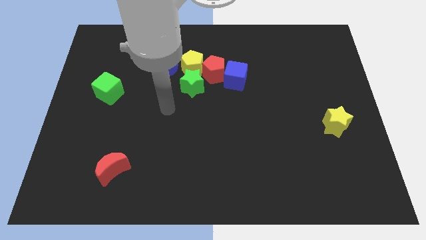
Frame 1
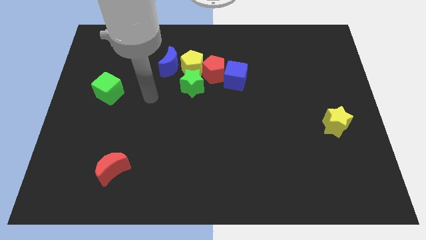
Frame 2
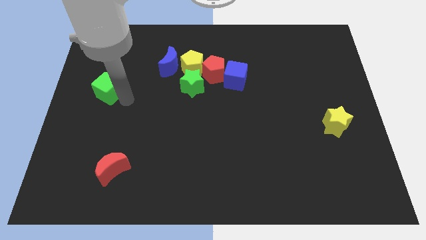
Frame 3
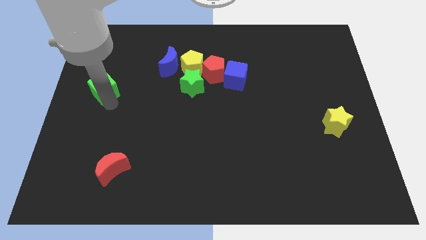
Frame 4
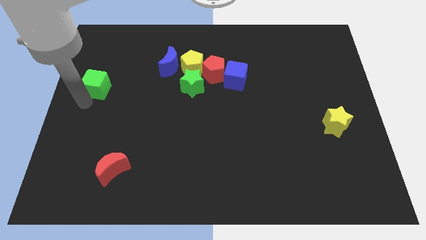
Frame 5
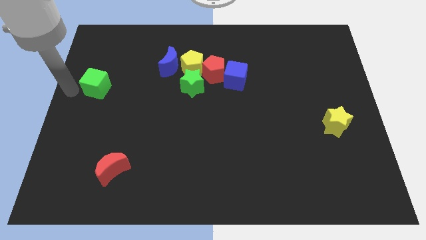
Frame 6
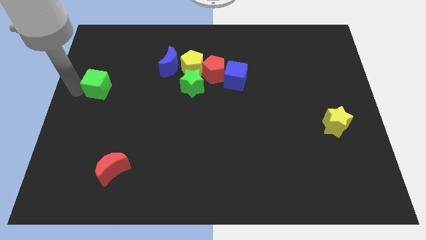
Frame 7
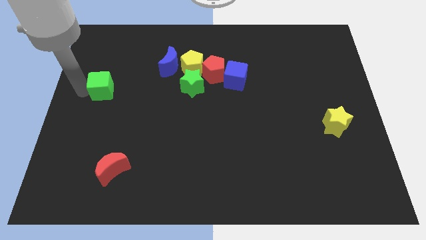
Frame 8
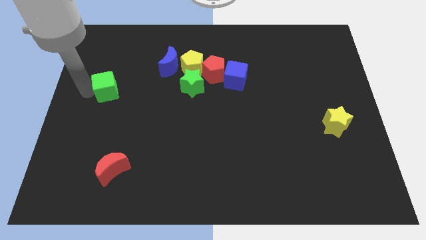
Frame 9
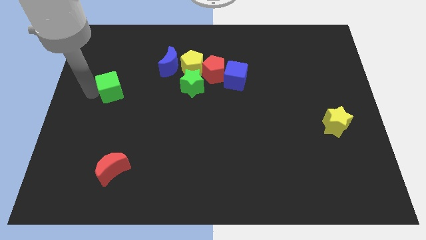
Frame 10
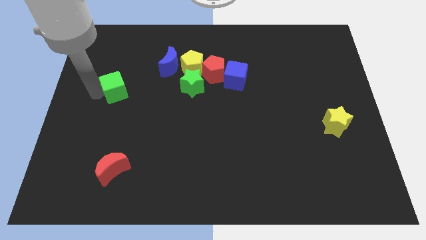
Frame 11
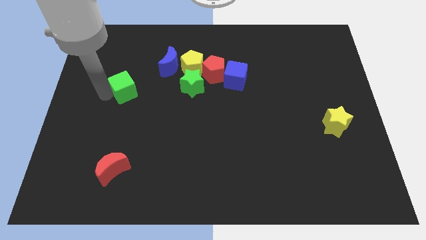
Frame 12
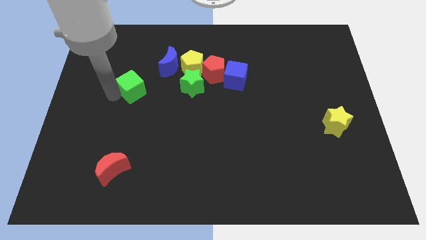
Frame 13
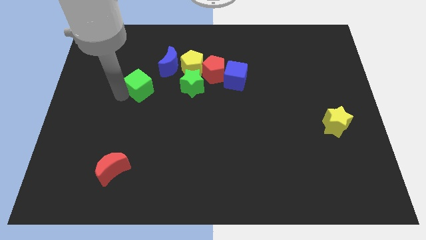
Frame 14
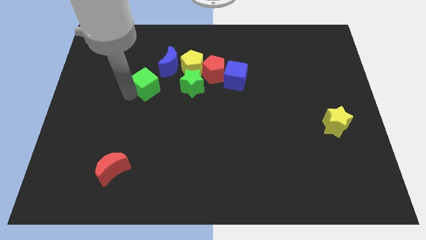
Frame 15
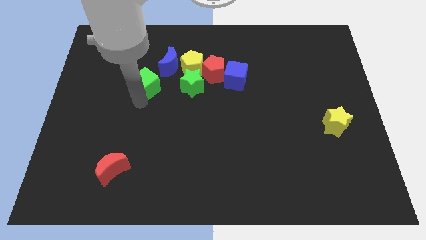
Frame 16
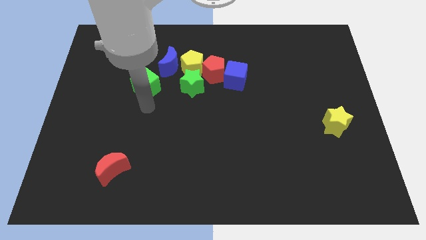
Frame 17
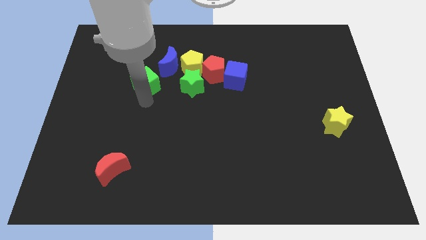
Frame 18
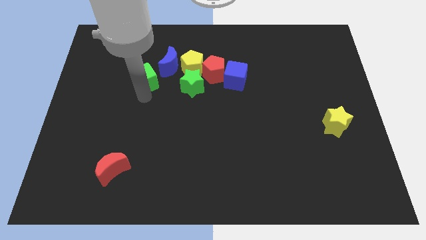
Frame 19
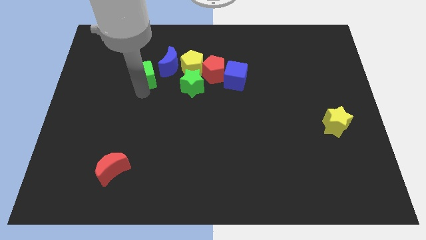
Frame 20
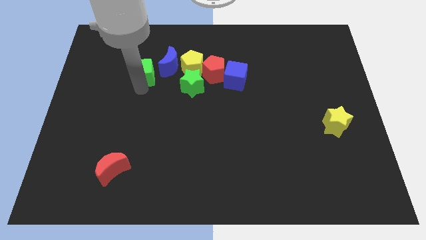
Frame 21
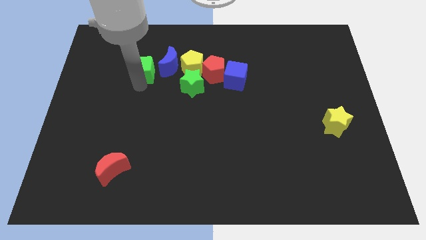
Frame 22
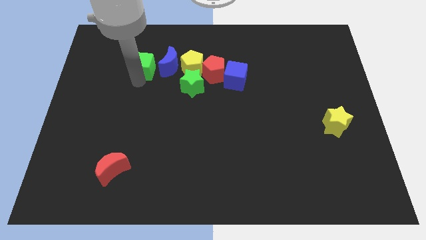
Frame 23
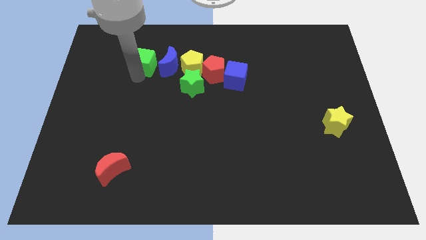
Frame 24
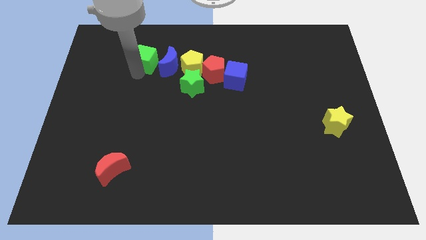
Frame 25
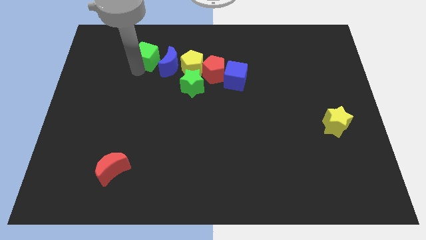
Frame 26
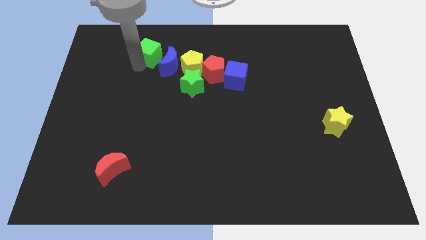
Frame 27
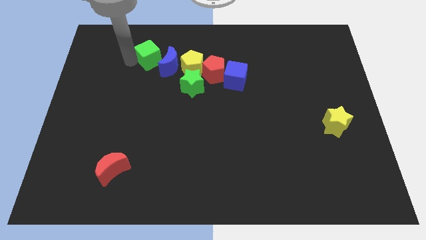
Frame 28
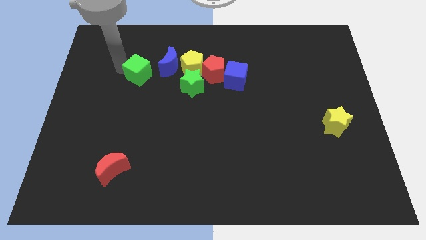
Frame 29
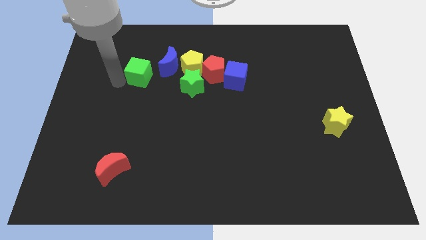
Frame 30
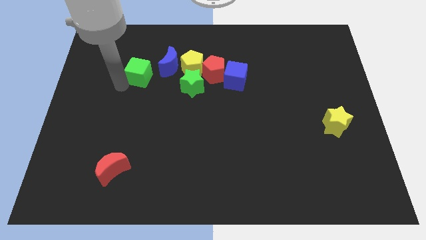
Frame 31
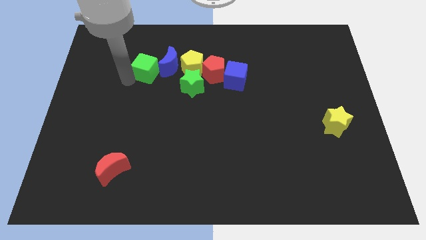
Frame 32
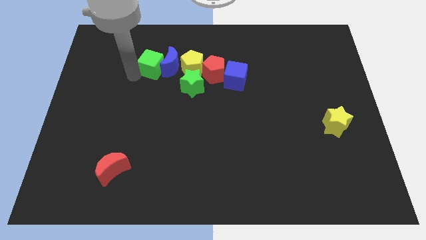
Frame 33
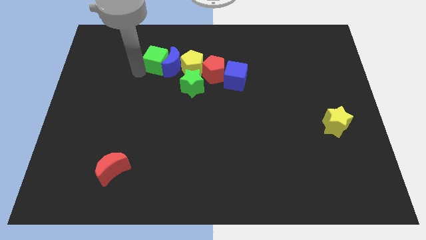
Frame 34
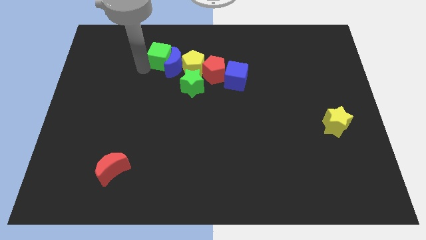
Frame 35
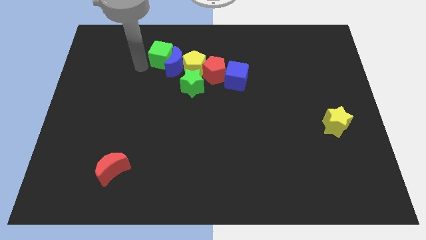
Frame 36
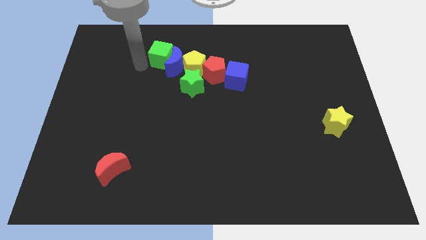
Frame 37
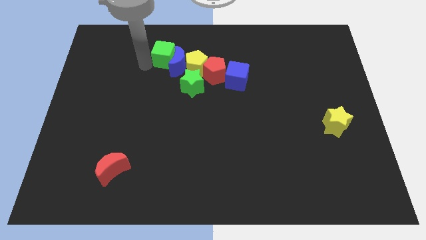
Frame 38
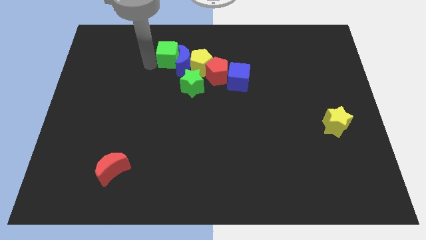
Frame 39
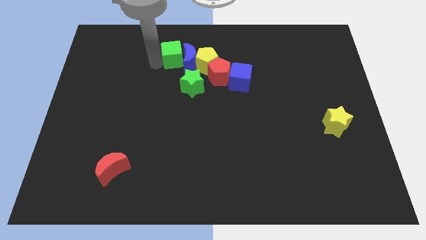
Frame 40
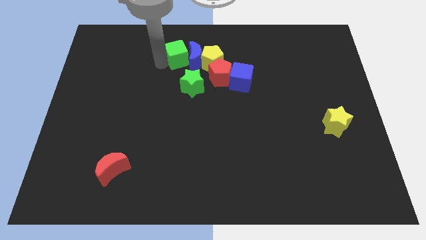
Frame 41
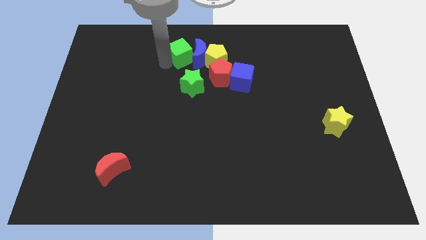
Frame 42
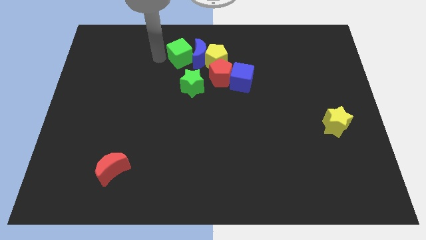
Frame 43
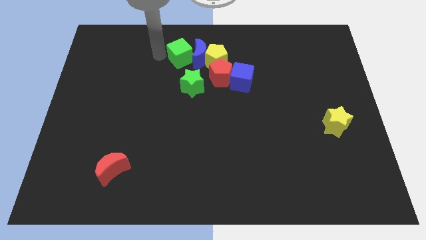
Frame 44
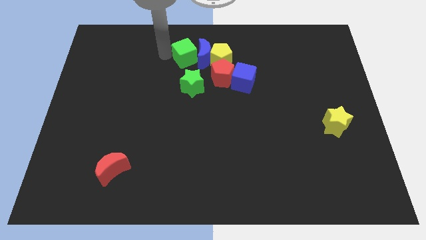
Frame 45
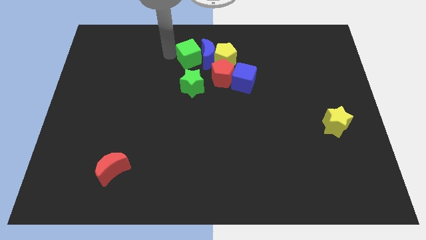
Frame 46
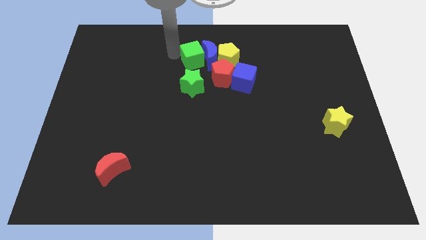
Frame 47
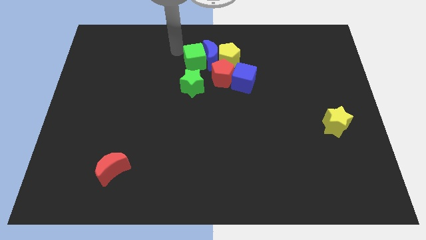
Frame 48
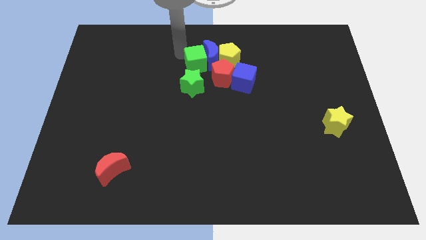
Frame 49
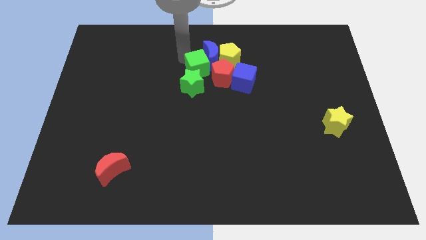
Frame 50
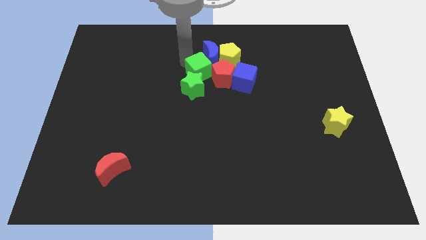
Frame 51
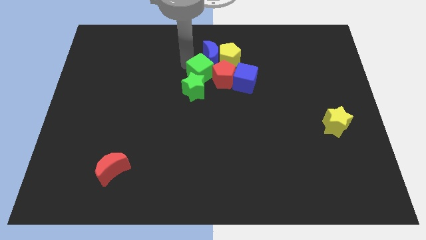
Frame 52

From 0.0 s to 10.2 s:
slide the green cube towards the red pentagon

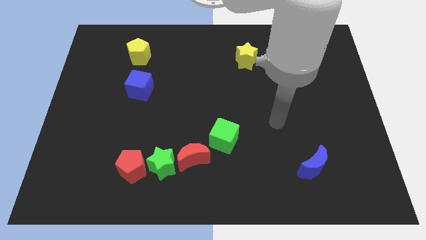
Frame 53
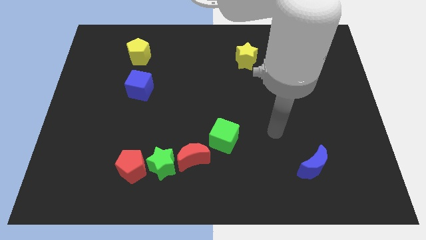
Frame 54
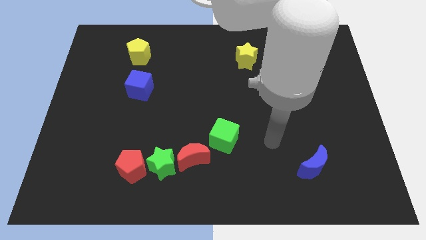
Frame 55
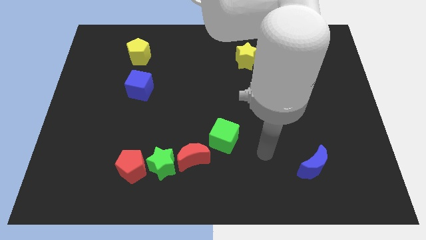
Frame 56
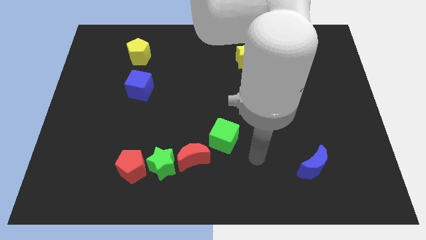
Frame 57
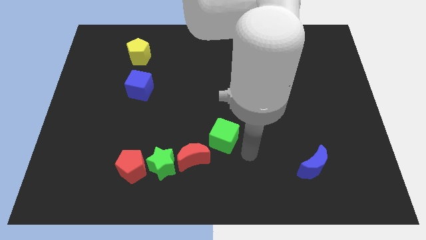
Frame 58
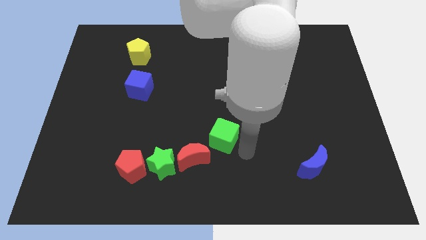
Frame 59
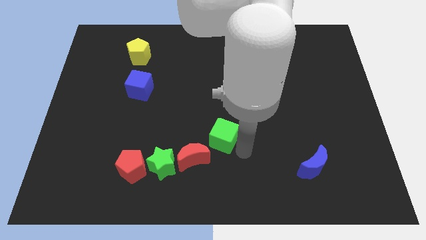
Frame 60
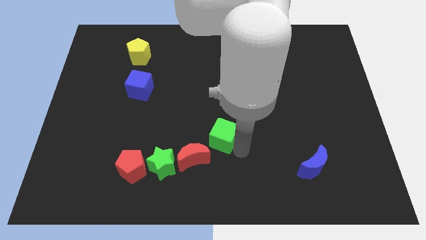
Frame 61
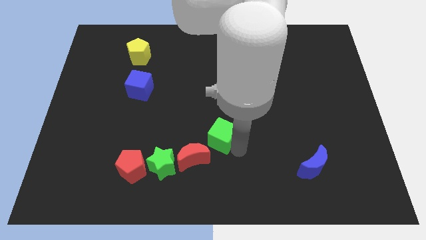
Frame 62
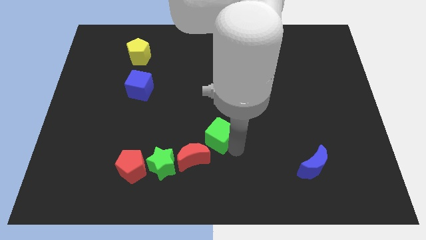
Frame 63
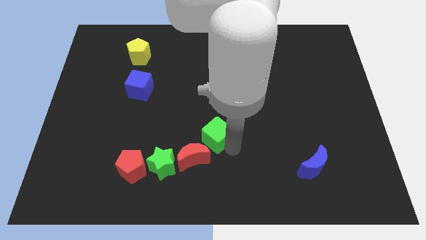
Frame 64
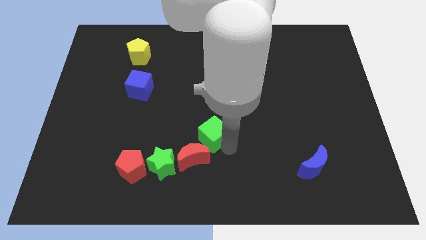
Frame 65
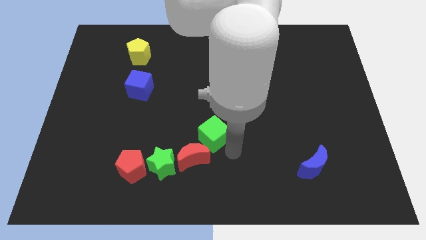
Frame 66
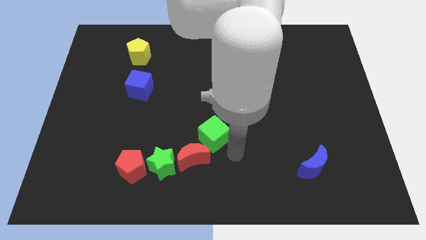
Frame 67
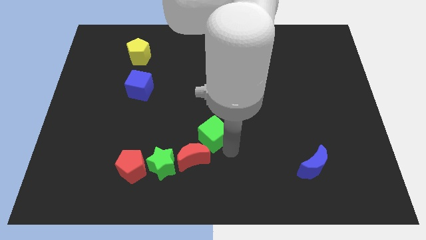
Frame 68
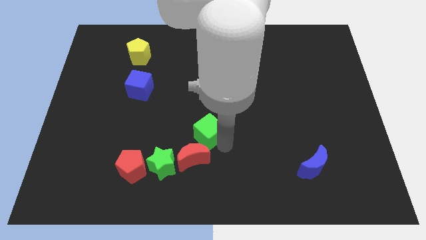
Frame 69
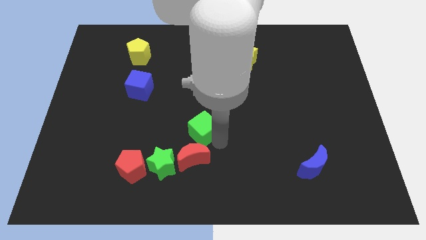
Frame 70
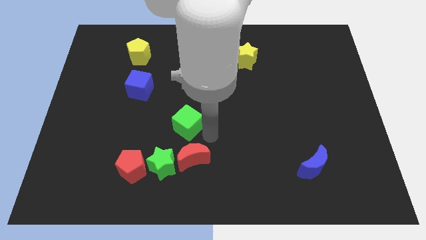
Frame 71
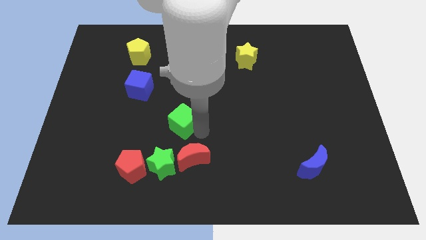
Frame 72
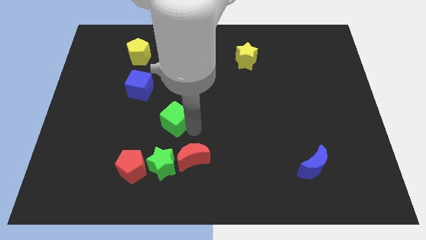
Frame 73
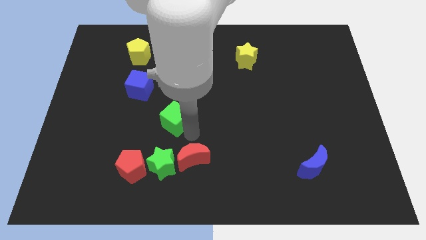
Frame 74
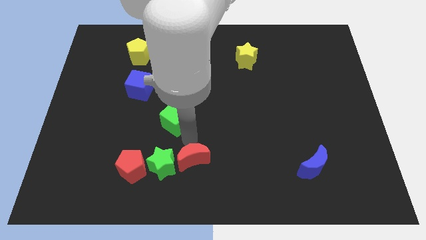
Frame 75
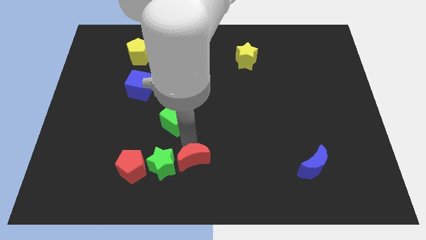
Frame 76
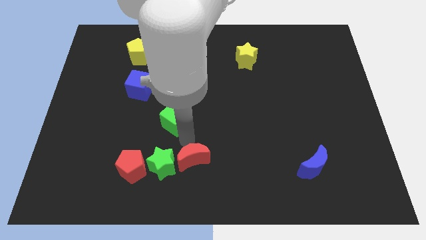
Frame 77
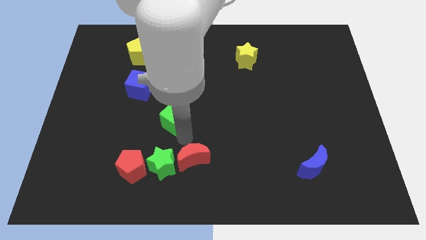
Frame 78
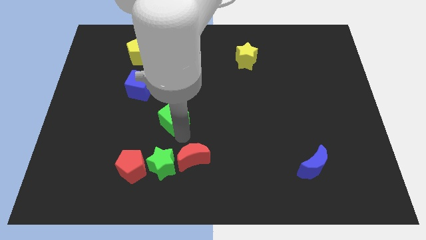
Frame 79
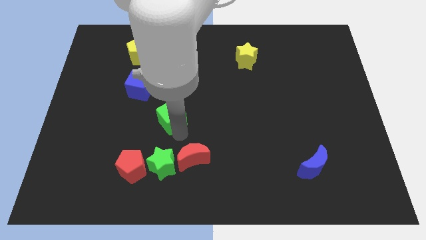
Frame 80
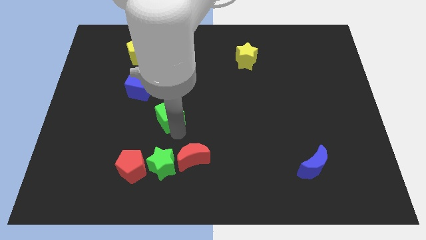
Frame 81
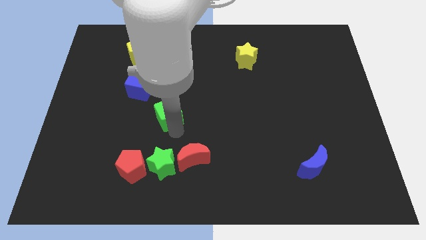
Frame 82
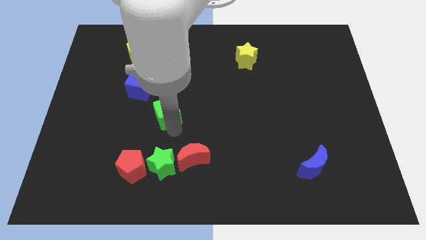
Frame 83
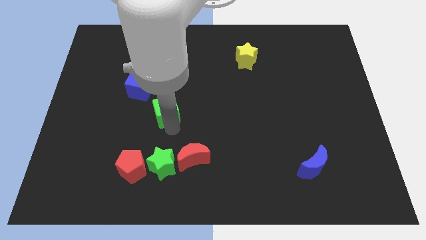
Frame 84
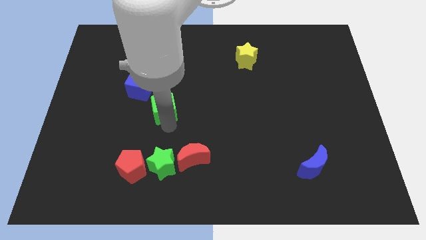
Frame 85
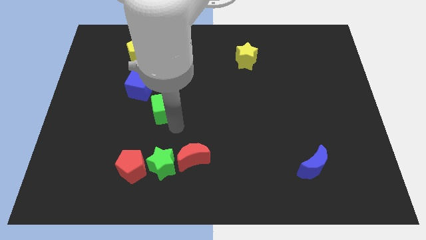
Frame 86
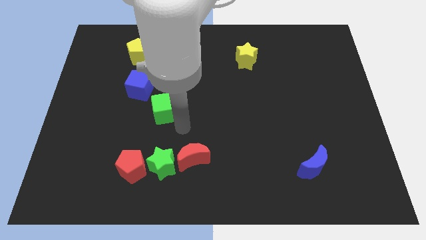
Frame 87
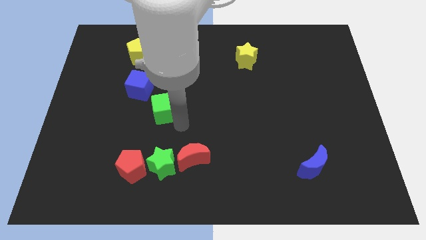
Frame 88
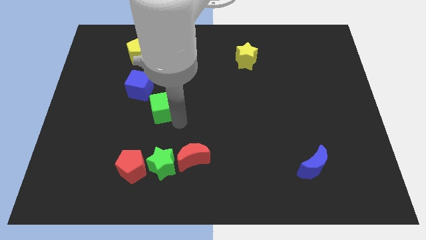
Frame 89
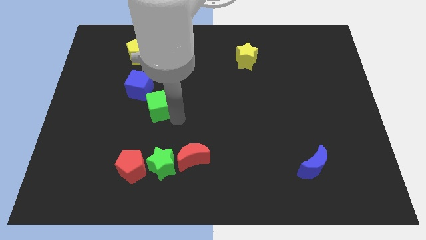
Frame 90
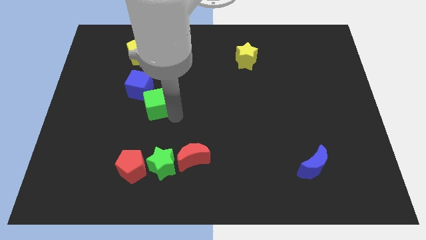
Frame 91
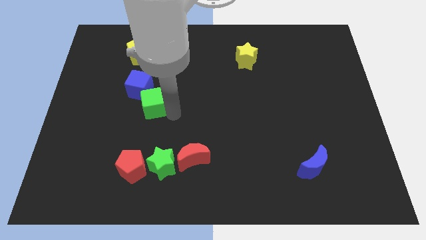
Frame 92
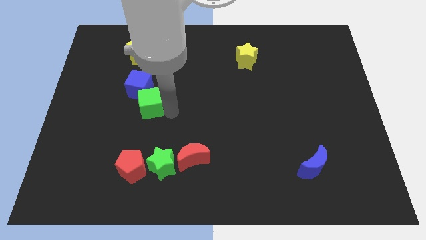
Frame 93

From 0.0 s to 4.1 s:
push the green cube towards the blue cube
